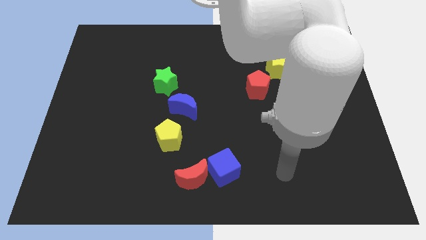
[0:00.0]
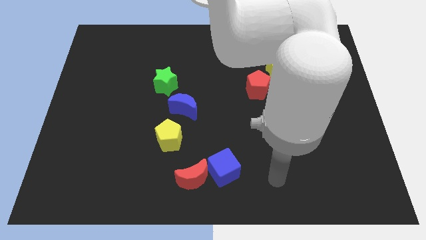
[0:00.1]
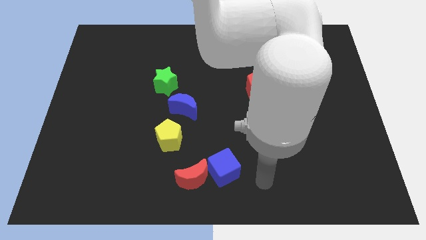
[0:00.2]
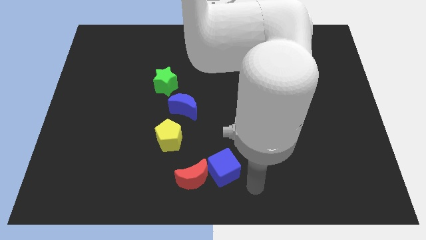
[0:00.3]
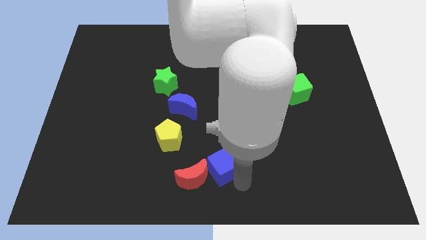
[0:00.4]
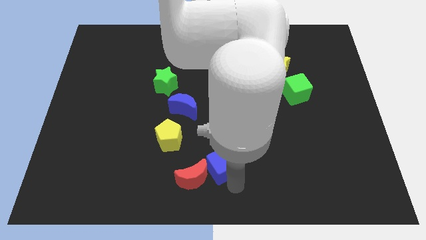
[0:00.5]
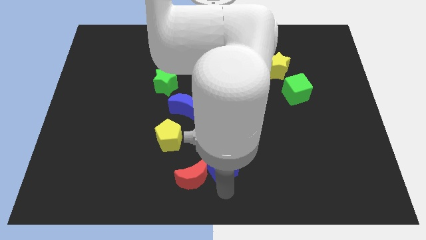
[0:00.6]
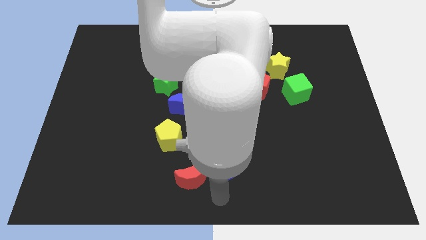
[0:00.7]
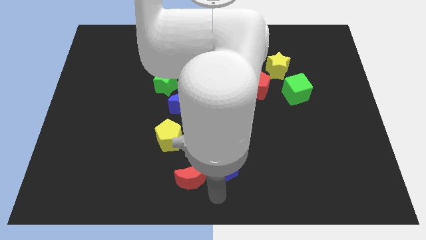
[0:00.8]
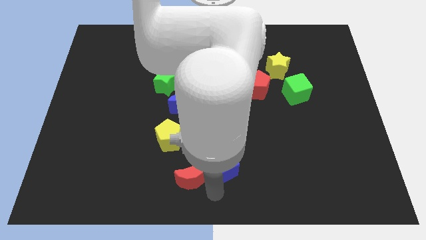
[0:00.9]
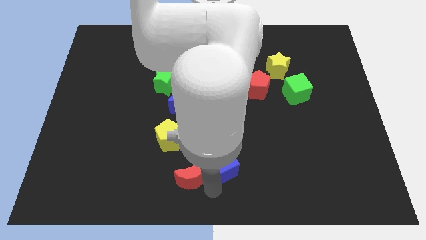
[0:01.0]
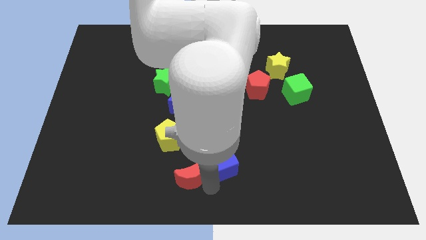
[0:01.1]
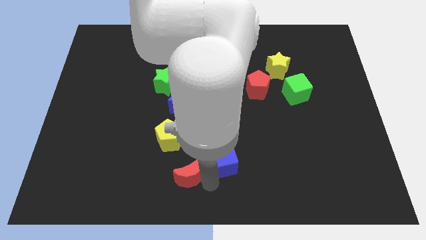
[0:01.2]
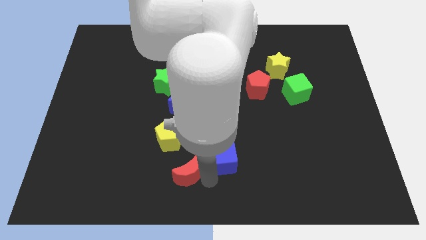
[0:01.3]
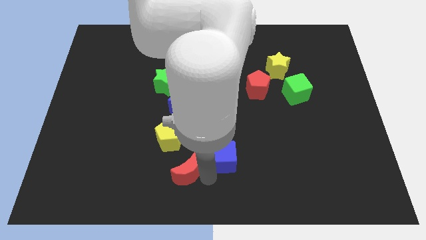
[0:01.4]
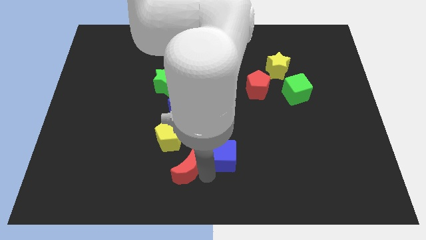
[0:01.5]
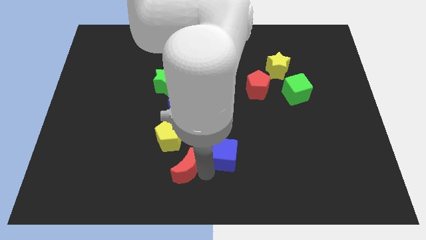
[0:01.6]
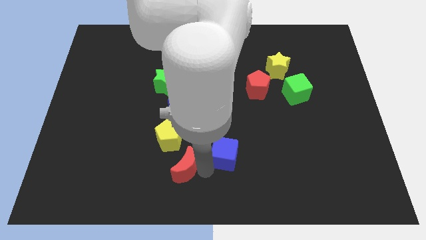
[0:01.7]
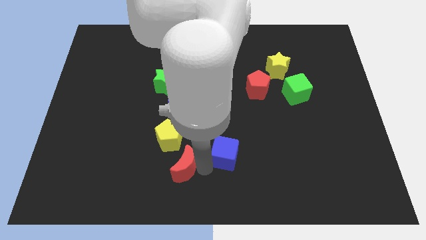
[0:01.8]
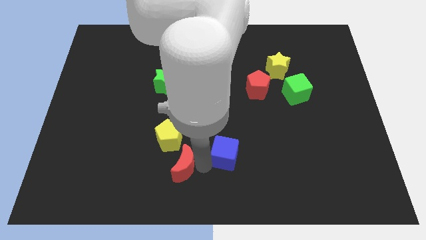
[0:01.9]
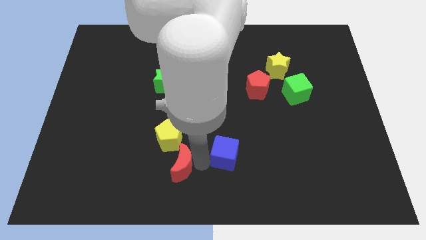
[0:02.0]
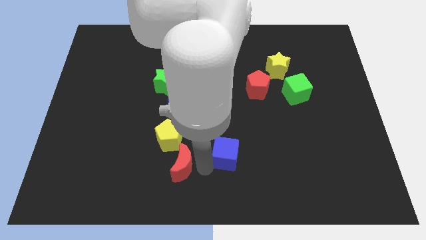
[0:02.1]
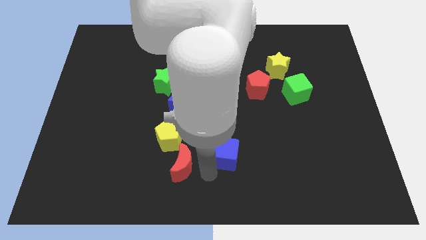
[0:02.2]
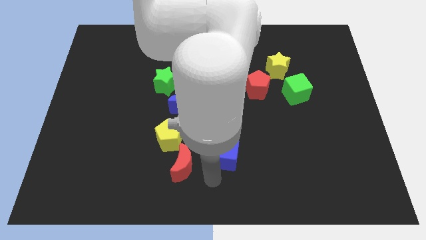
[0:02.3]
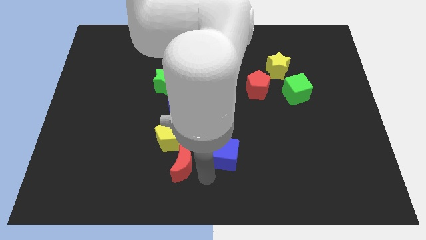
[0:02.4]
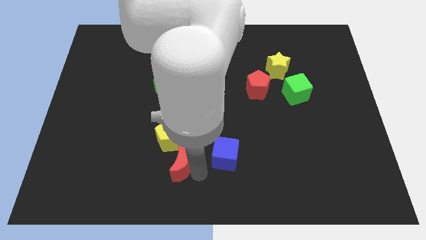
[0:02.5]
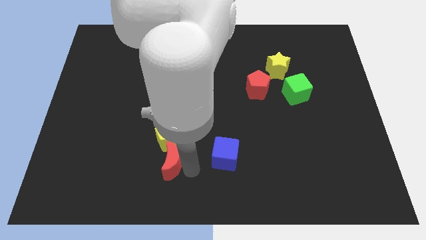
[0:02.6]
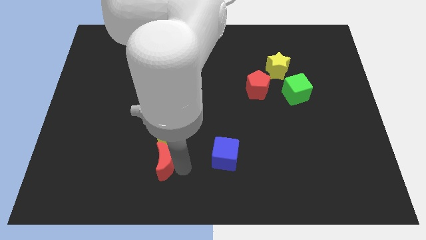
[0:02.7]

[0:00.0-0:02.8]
move the red moon a bit diagonally upwards and left

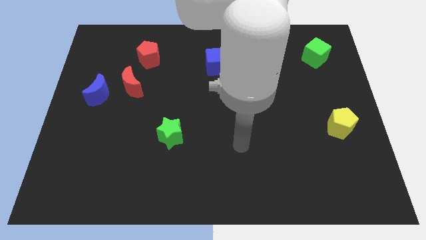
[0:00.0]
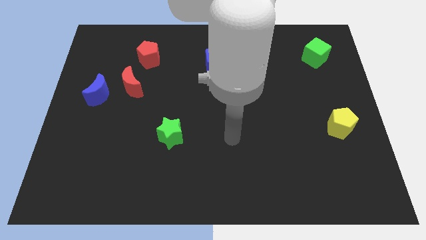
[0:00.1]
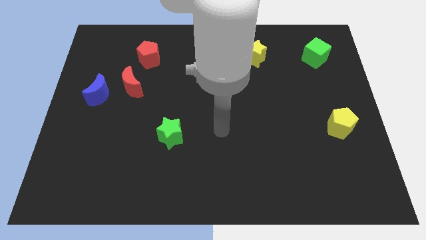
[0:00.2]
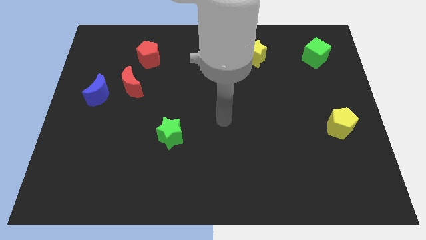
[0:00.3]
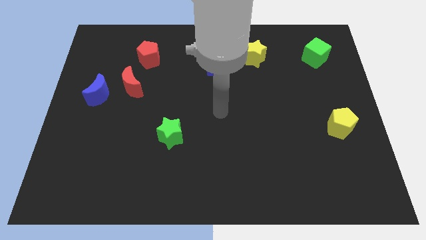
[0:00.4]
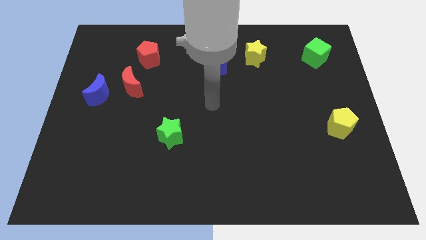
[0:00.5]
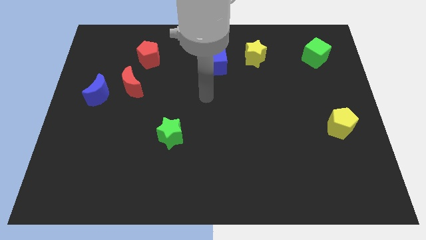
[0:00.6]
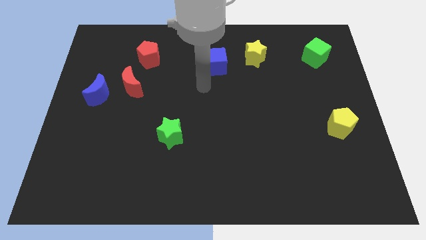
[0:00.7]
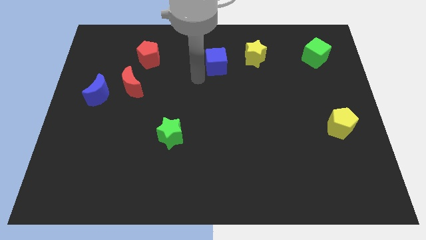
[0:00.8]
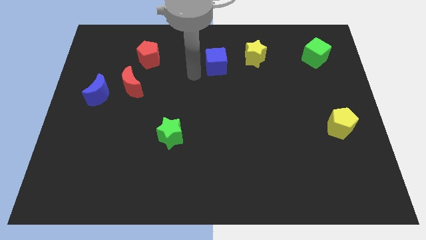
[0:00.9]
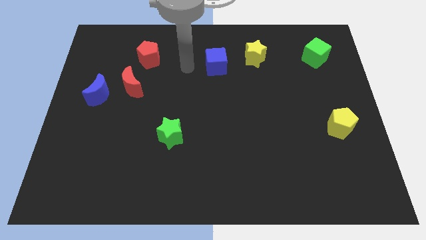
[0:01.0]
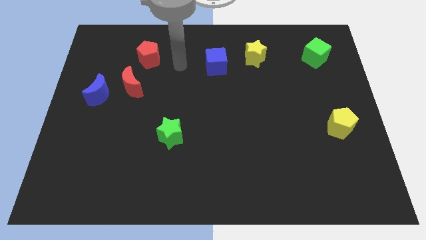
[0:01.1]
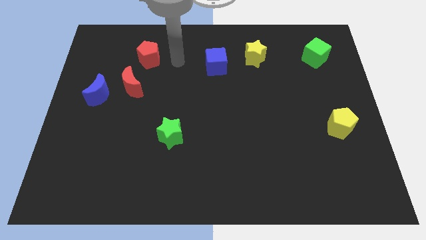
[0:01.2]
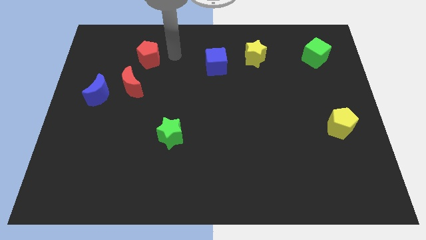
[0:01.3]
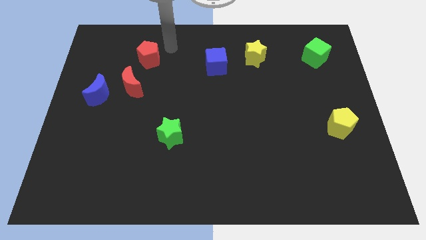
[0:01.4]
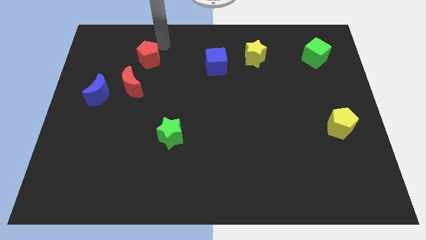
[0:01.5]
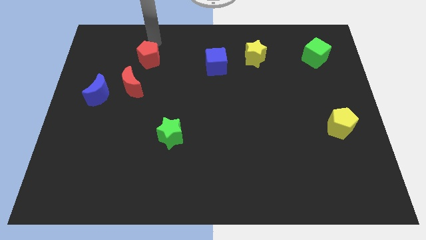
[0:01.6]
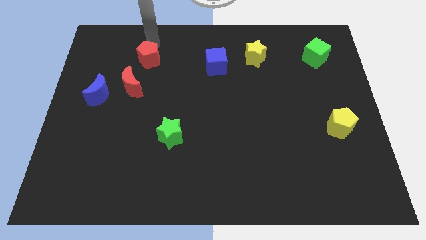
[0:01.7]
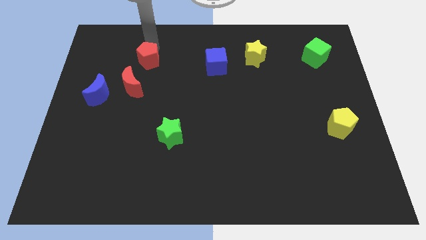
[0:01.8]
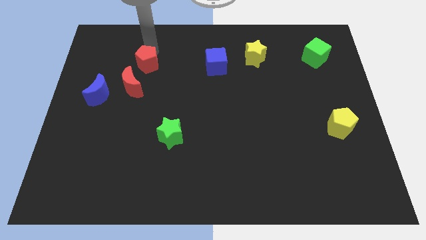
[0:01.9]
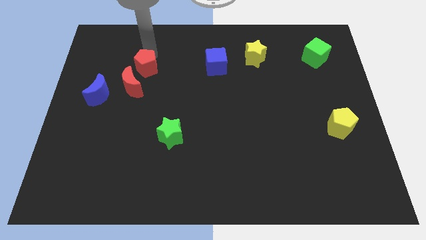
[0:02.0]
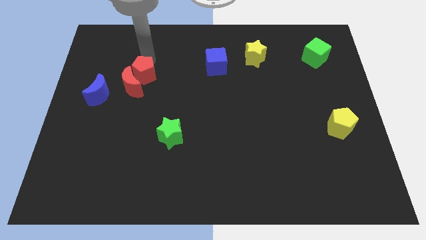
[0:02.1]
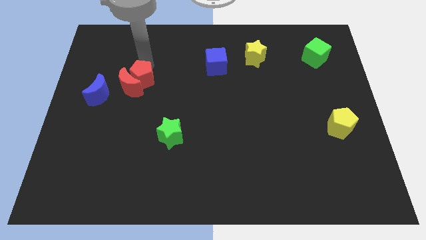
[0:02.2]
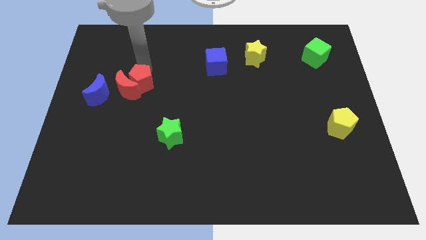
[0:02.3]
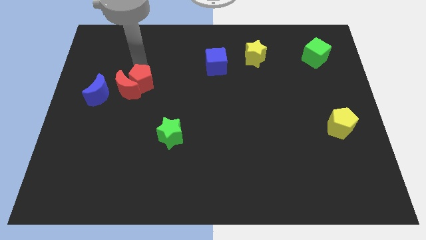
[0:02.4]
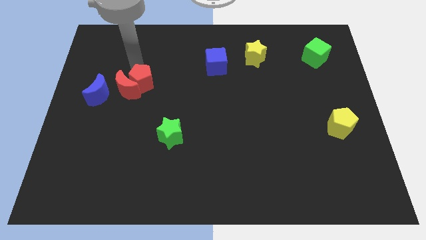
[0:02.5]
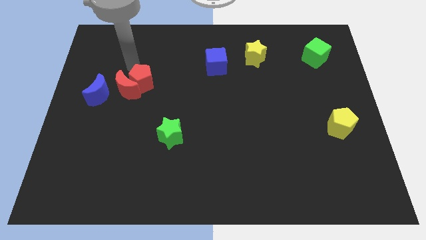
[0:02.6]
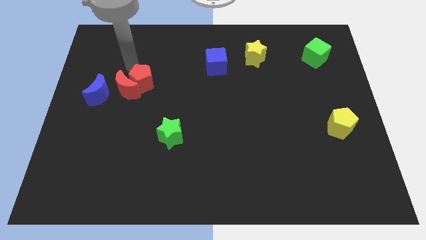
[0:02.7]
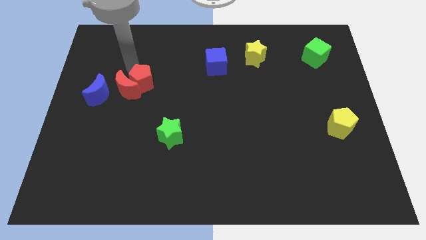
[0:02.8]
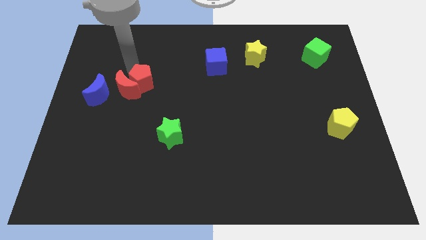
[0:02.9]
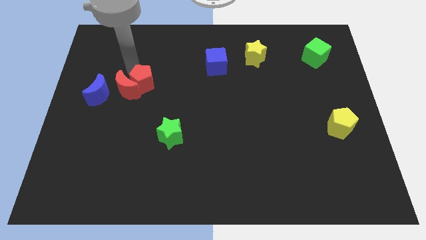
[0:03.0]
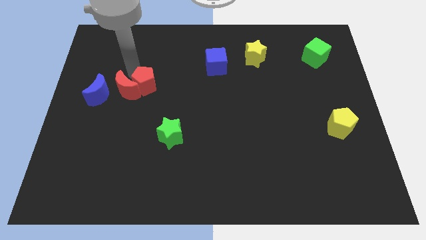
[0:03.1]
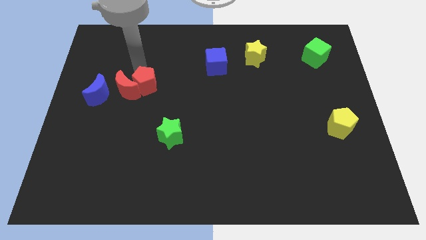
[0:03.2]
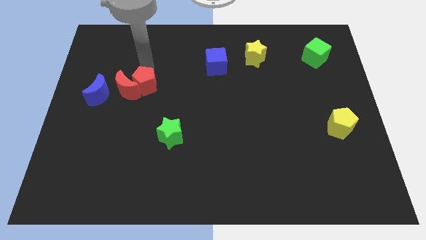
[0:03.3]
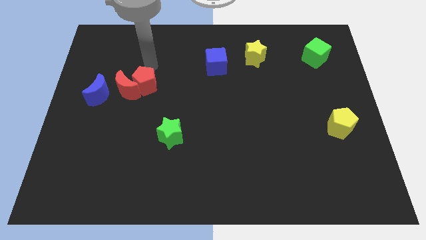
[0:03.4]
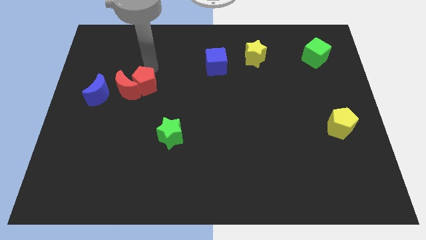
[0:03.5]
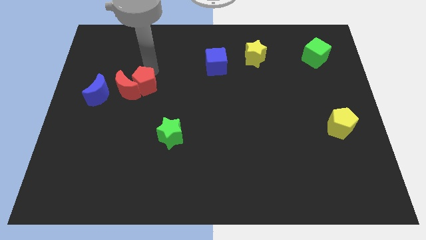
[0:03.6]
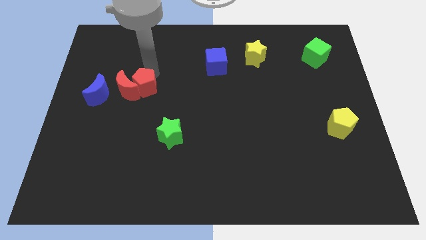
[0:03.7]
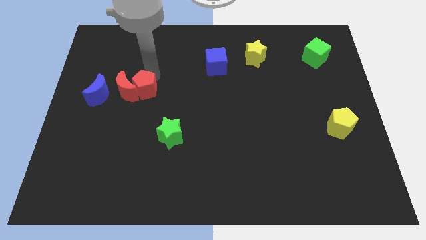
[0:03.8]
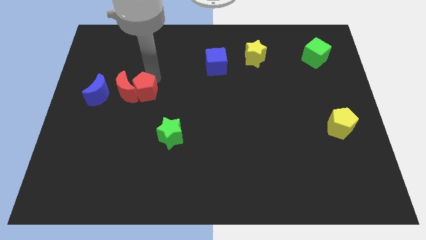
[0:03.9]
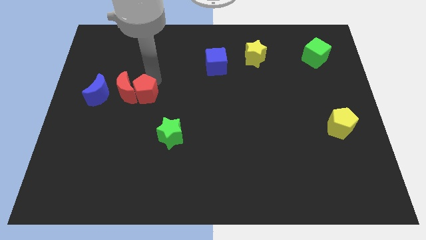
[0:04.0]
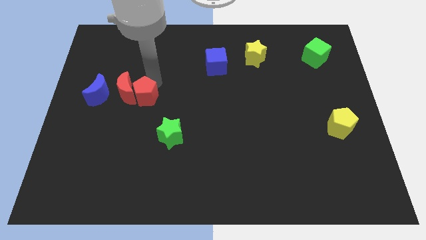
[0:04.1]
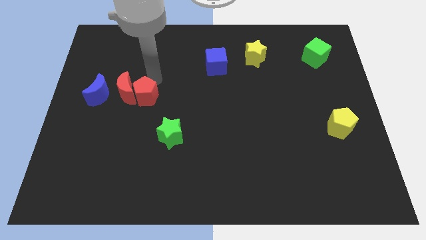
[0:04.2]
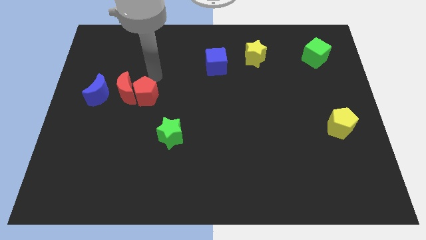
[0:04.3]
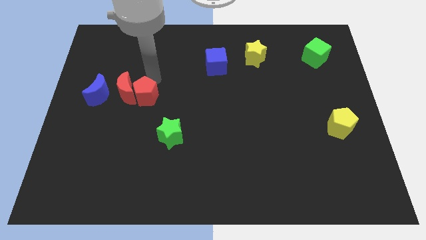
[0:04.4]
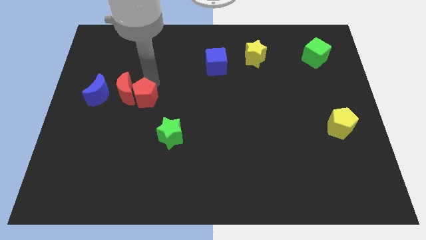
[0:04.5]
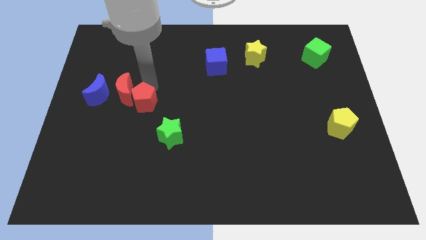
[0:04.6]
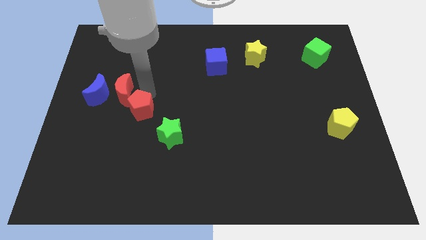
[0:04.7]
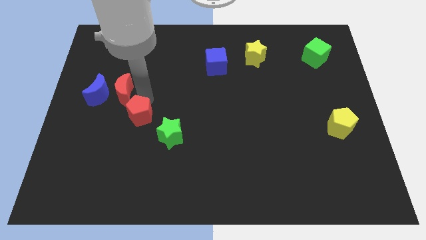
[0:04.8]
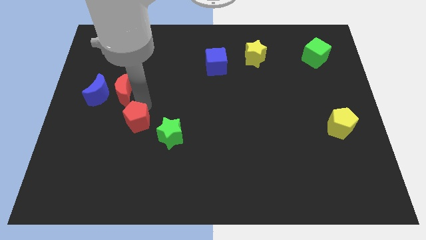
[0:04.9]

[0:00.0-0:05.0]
push the red pentagon down

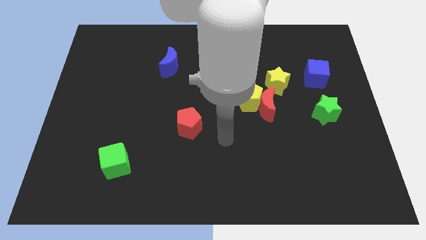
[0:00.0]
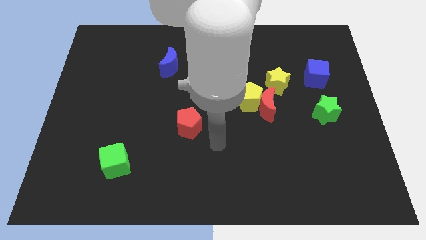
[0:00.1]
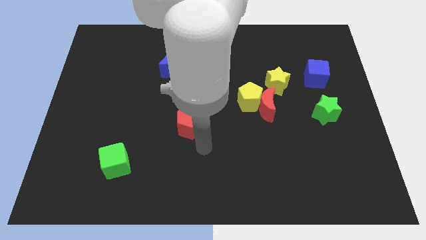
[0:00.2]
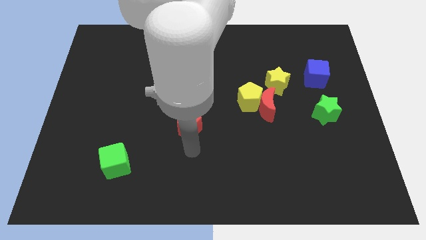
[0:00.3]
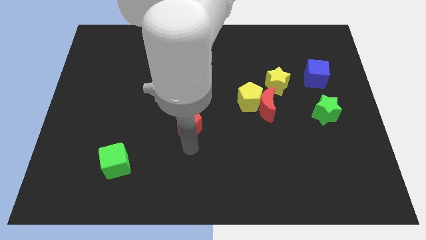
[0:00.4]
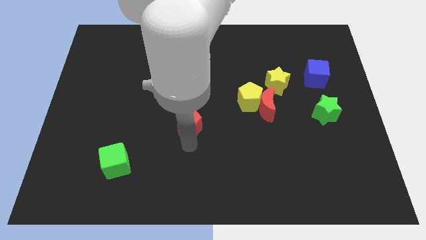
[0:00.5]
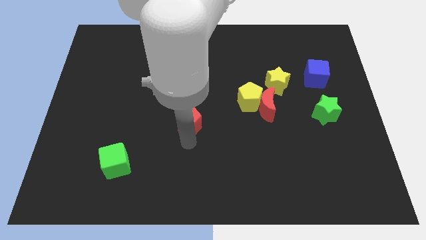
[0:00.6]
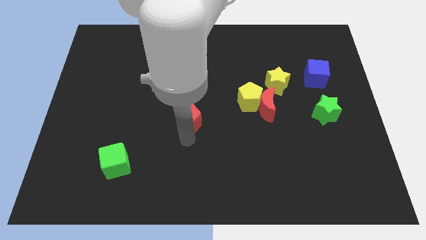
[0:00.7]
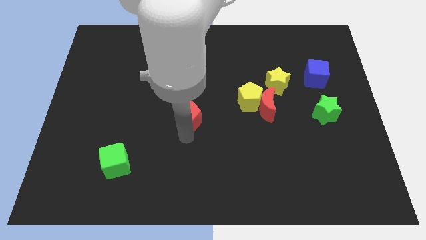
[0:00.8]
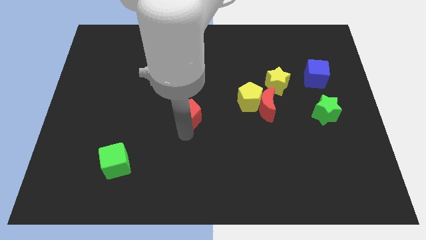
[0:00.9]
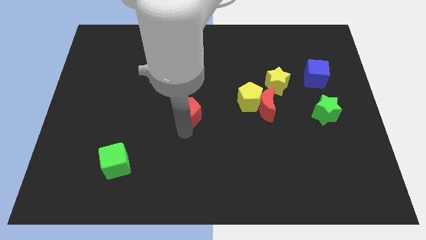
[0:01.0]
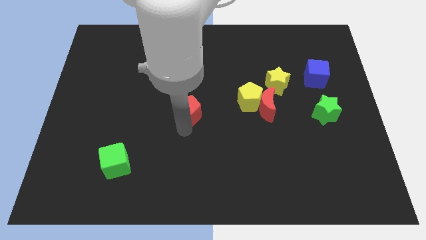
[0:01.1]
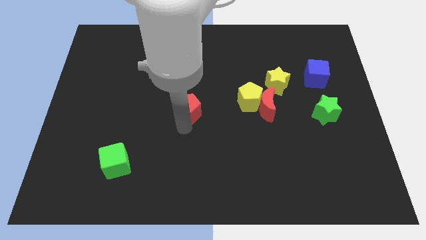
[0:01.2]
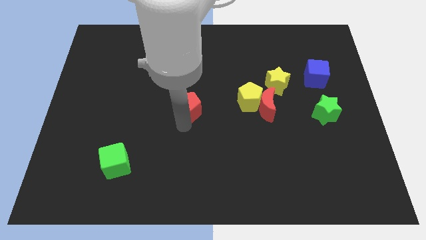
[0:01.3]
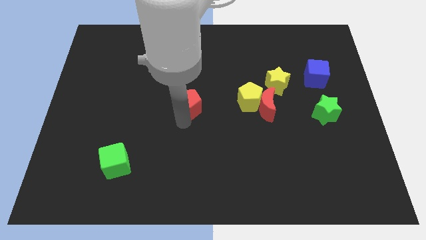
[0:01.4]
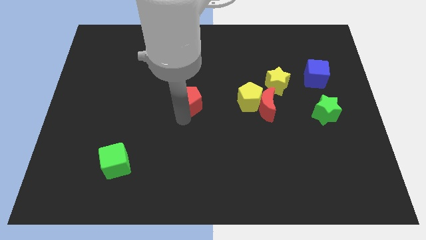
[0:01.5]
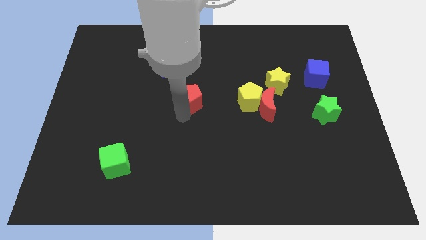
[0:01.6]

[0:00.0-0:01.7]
slide the red pentagon up a bit
